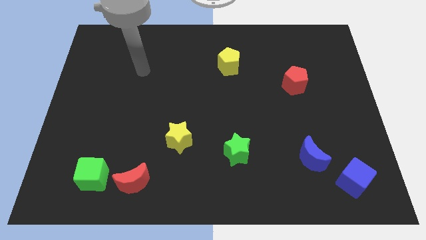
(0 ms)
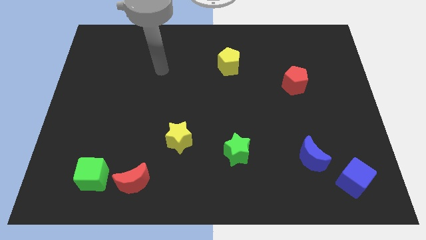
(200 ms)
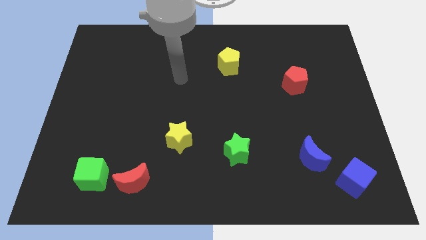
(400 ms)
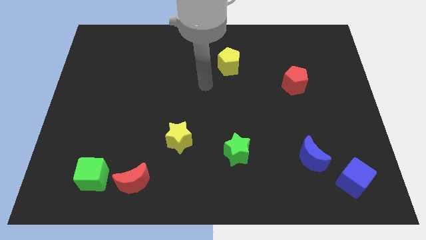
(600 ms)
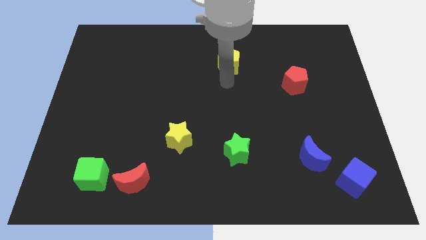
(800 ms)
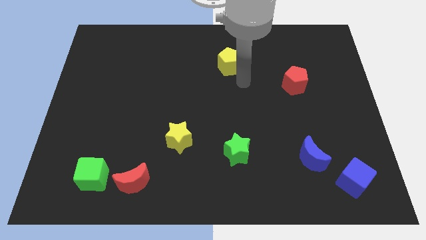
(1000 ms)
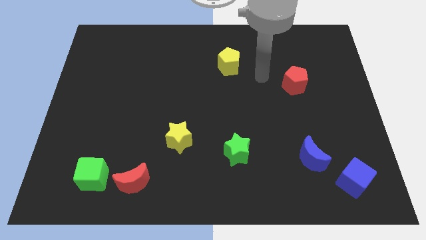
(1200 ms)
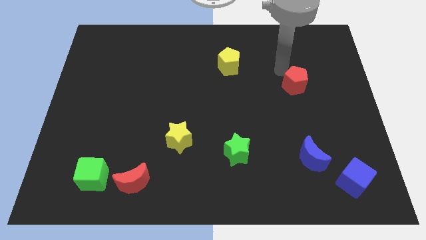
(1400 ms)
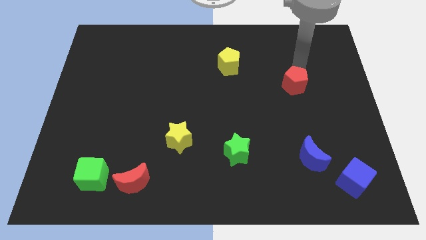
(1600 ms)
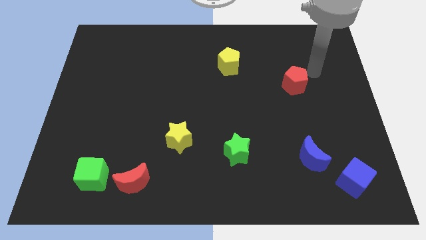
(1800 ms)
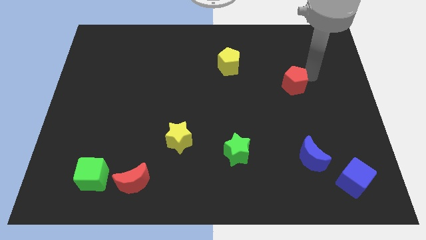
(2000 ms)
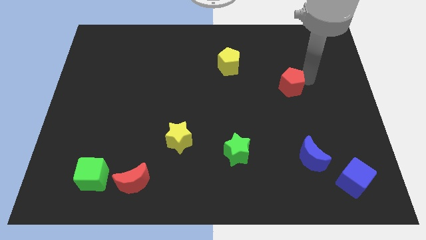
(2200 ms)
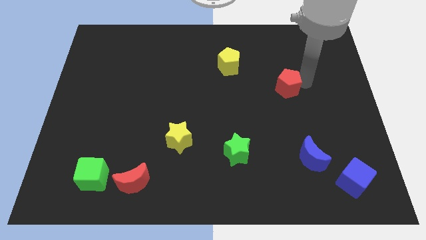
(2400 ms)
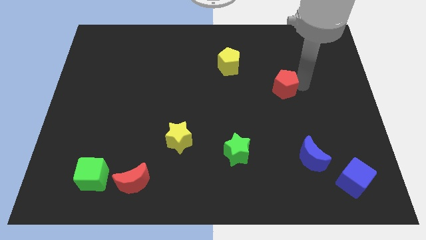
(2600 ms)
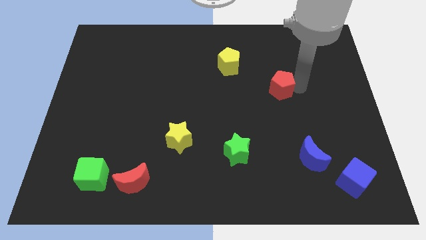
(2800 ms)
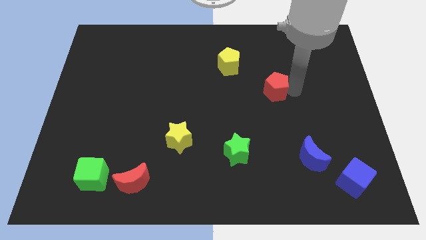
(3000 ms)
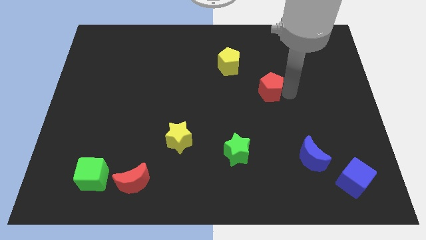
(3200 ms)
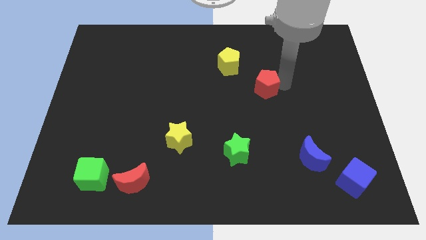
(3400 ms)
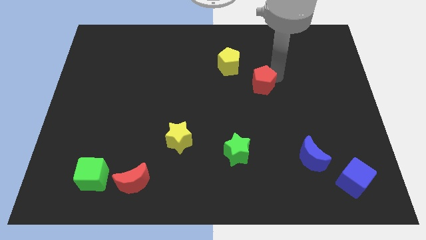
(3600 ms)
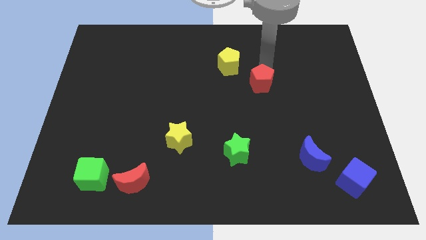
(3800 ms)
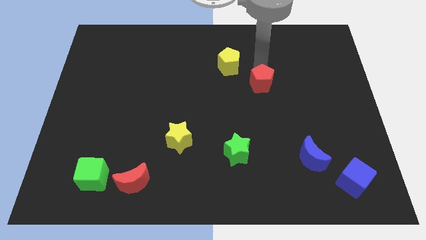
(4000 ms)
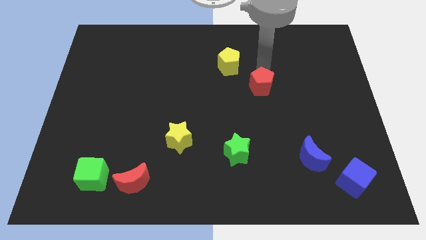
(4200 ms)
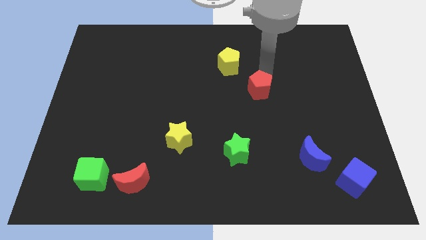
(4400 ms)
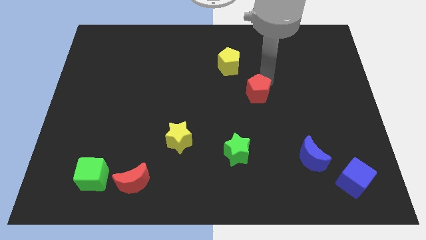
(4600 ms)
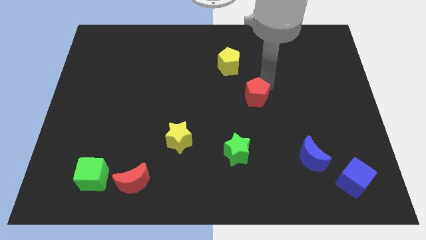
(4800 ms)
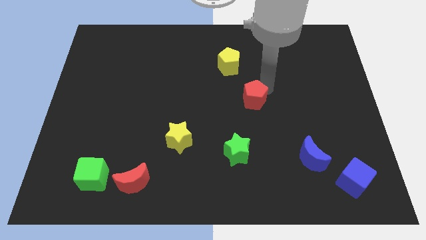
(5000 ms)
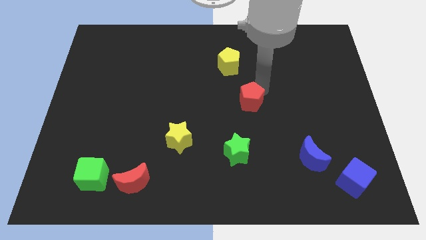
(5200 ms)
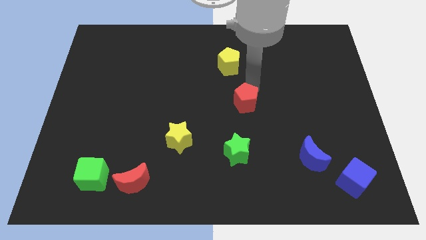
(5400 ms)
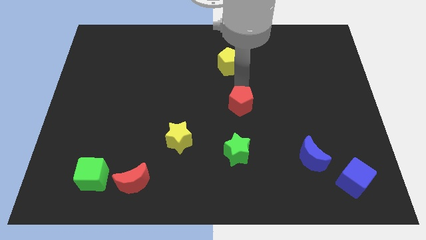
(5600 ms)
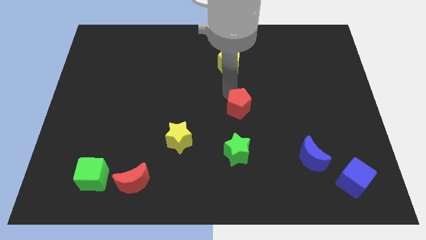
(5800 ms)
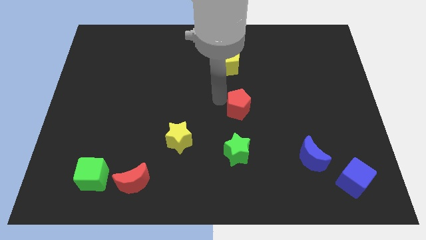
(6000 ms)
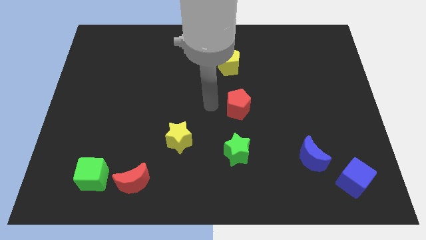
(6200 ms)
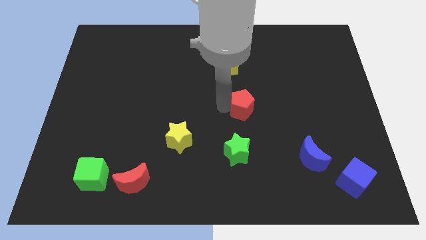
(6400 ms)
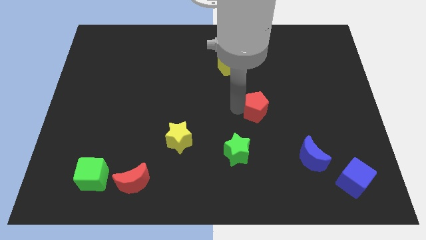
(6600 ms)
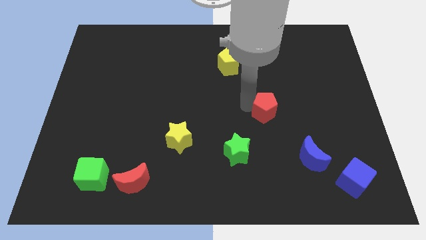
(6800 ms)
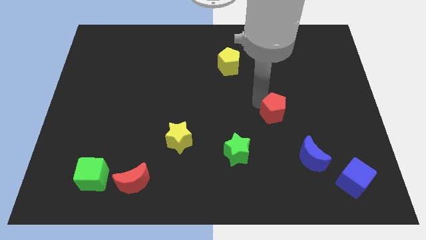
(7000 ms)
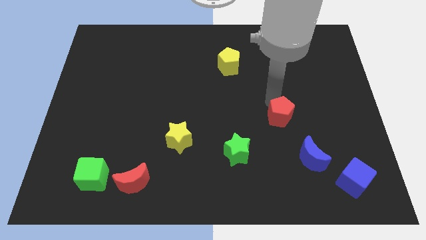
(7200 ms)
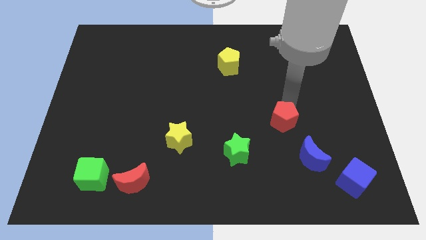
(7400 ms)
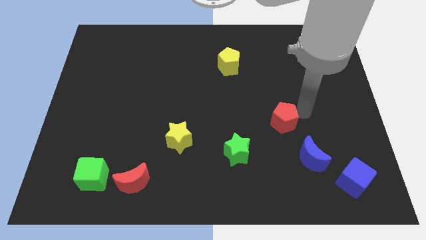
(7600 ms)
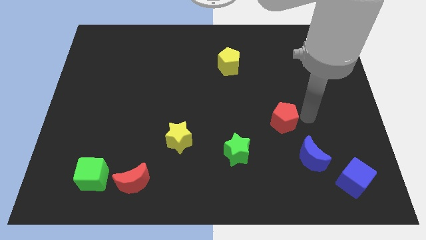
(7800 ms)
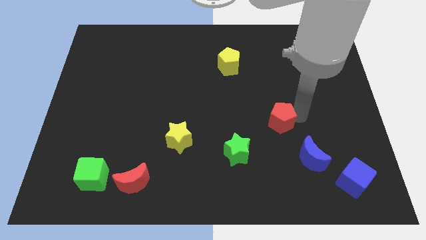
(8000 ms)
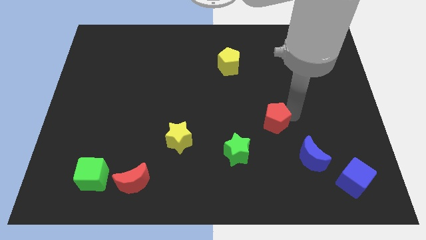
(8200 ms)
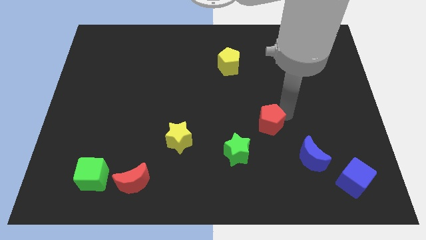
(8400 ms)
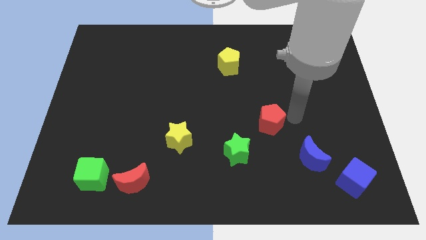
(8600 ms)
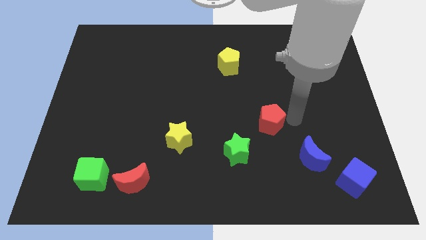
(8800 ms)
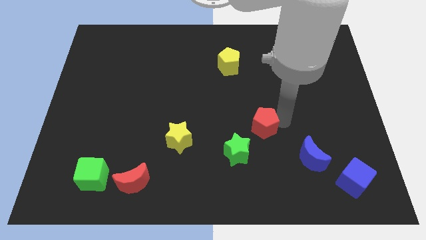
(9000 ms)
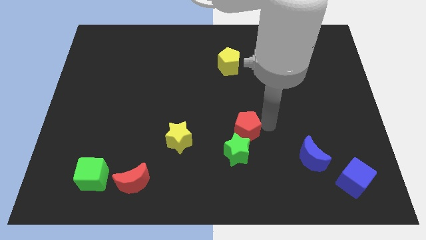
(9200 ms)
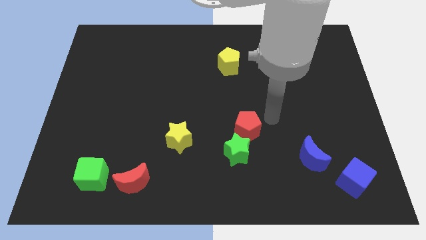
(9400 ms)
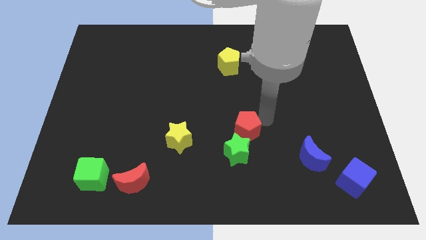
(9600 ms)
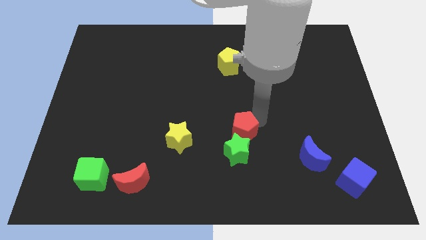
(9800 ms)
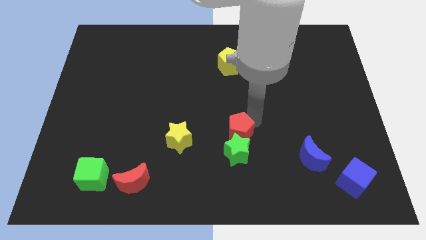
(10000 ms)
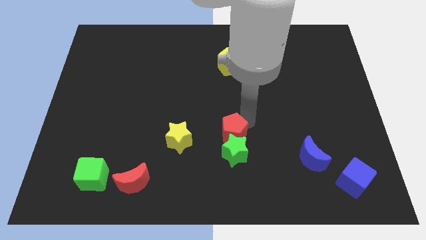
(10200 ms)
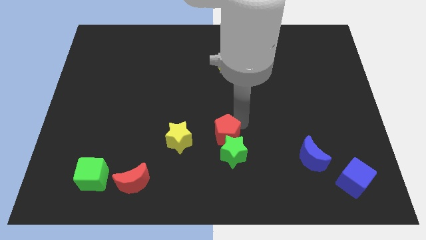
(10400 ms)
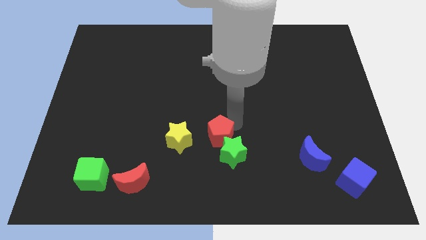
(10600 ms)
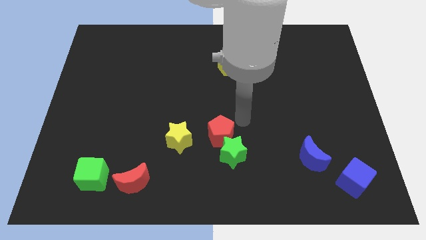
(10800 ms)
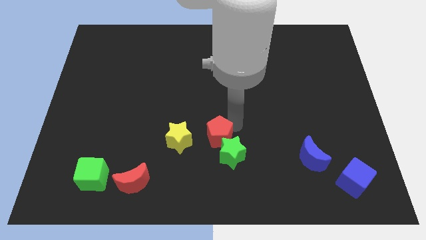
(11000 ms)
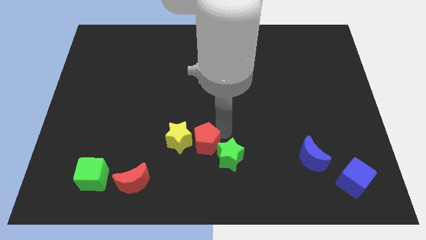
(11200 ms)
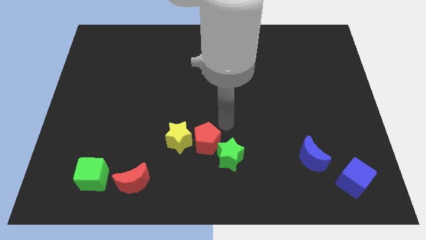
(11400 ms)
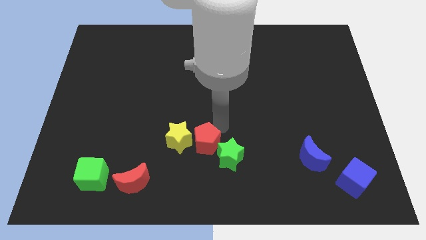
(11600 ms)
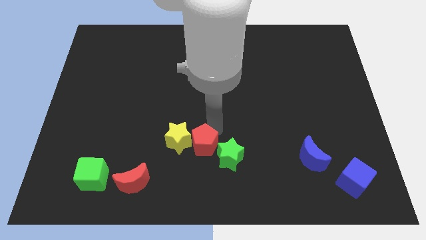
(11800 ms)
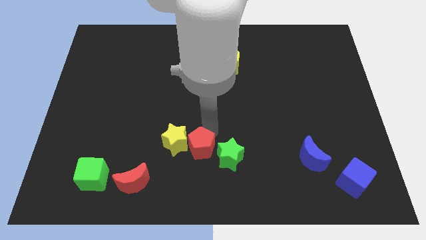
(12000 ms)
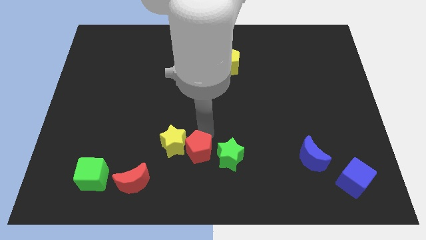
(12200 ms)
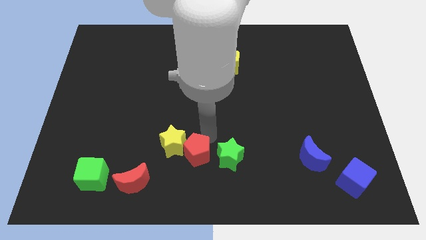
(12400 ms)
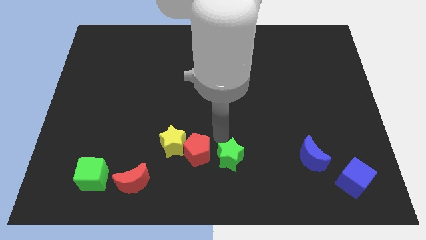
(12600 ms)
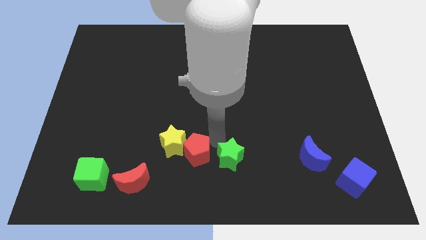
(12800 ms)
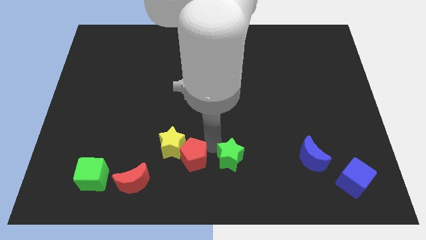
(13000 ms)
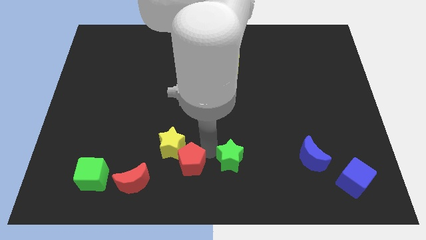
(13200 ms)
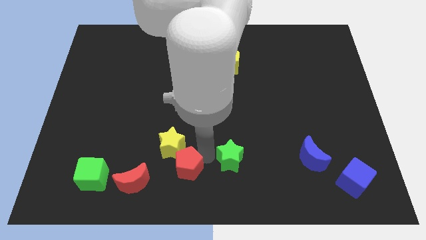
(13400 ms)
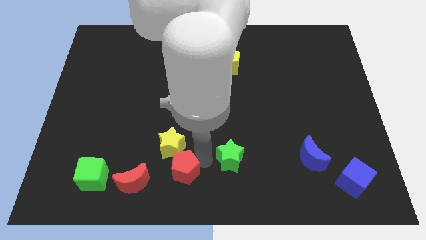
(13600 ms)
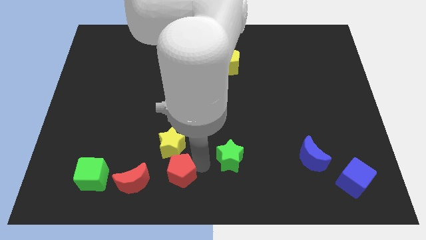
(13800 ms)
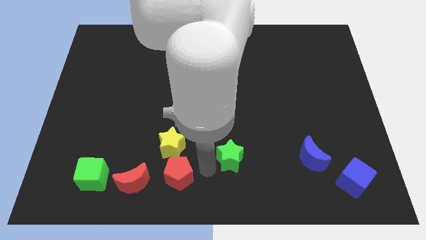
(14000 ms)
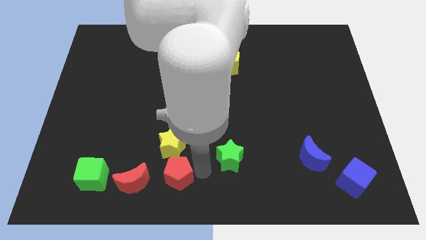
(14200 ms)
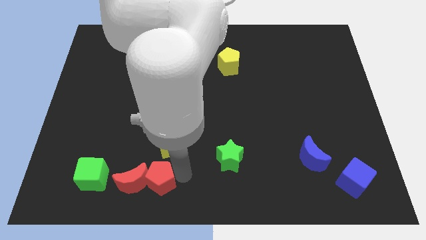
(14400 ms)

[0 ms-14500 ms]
slide the red pentagon towards the red moon
